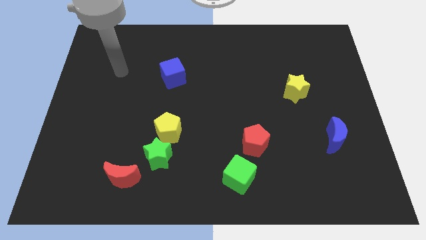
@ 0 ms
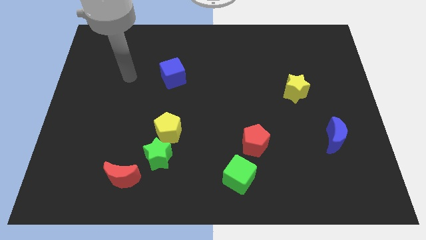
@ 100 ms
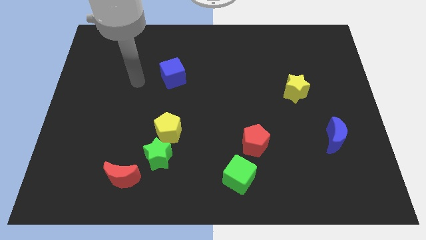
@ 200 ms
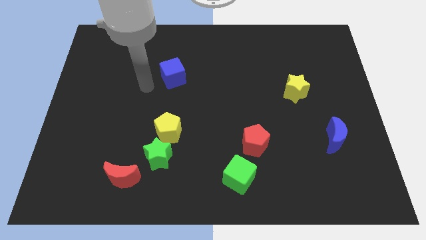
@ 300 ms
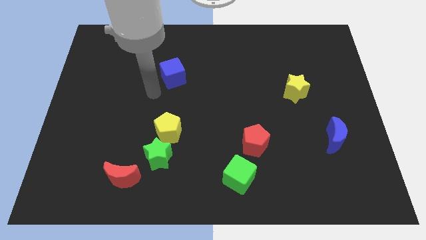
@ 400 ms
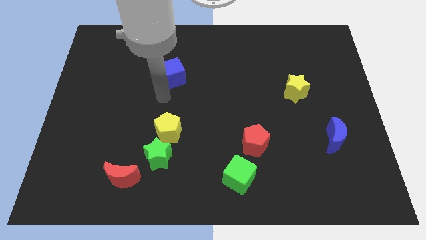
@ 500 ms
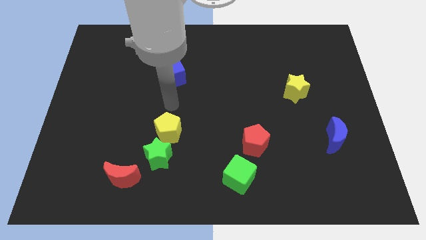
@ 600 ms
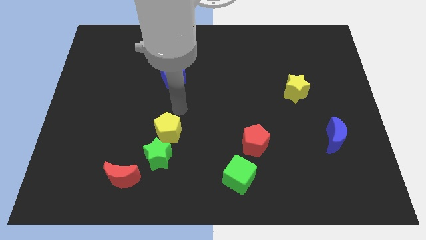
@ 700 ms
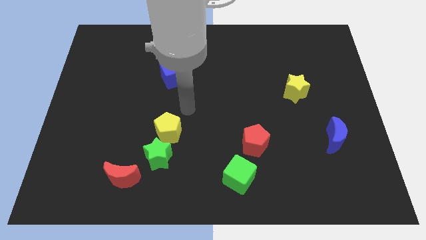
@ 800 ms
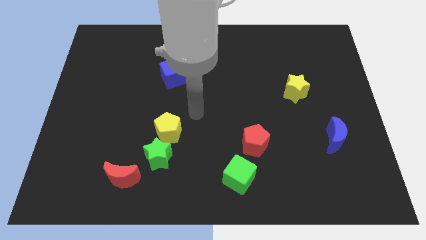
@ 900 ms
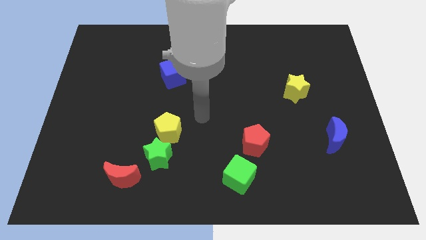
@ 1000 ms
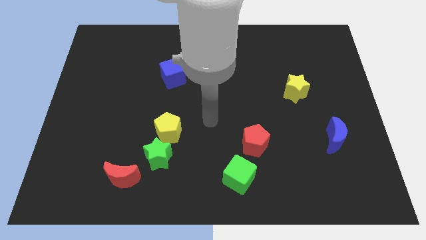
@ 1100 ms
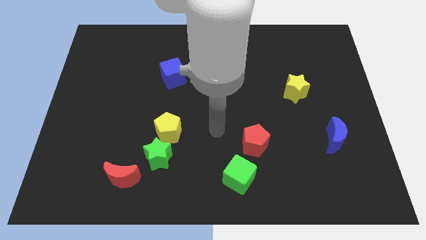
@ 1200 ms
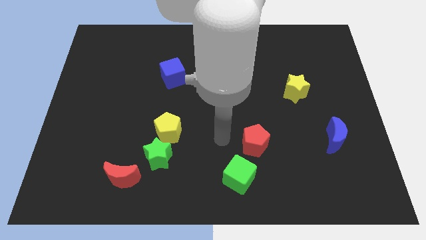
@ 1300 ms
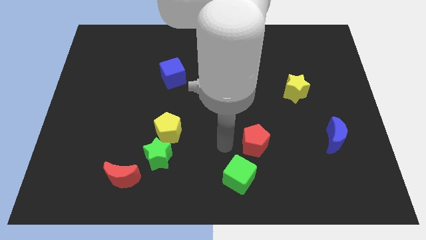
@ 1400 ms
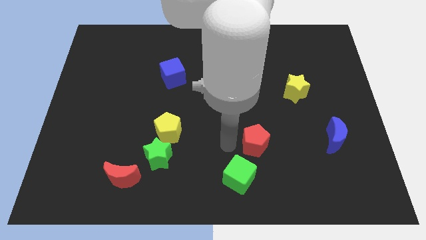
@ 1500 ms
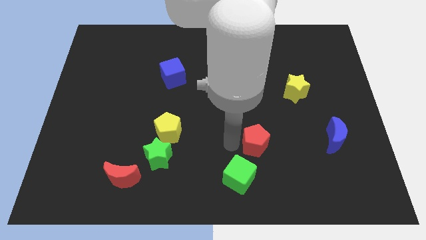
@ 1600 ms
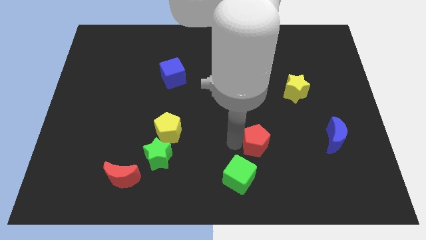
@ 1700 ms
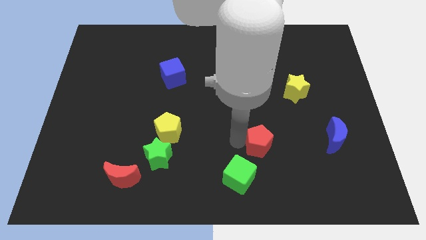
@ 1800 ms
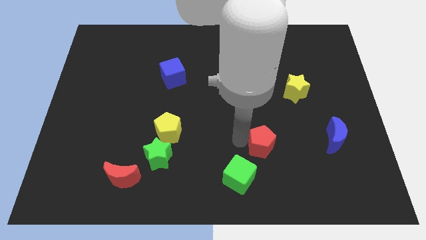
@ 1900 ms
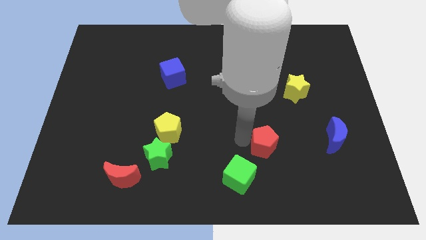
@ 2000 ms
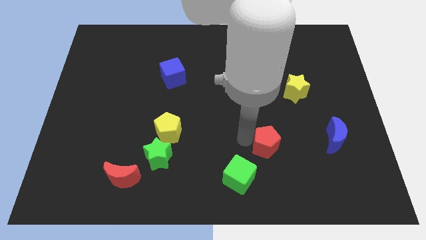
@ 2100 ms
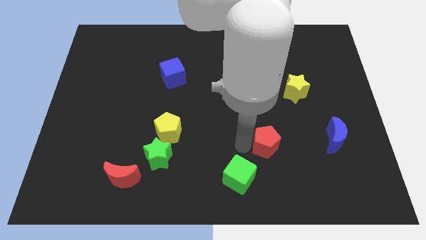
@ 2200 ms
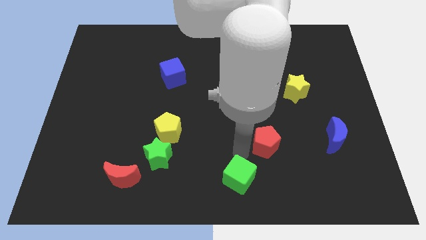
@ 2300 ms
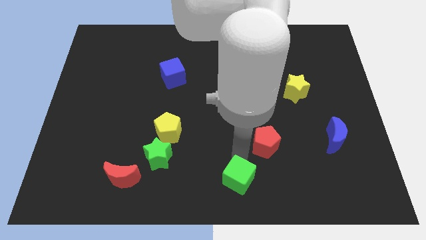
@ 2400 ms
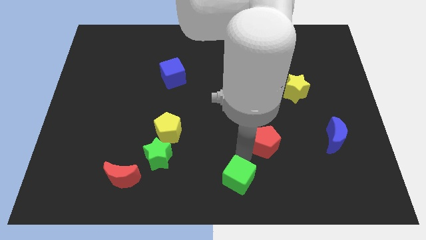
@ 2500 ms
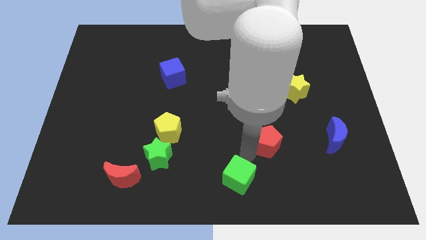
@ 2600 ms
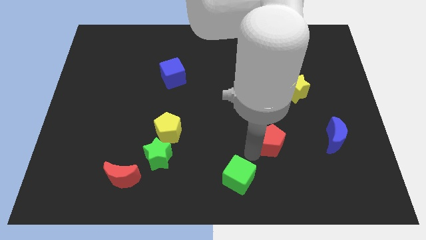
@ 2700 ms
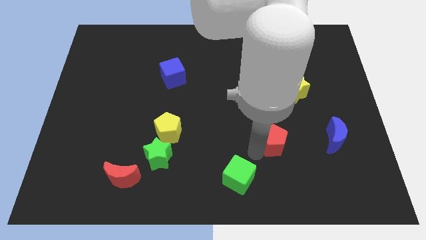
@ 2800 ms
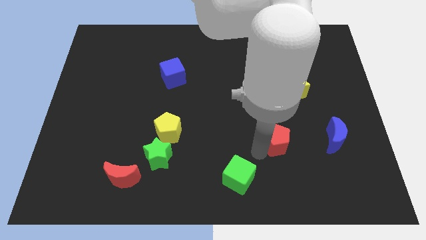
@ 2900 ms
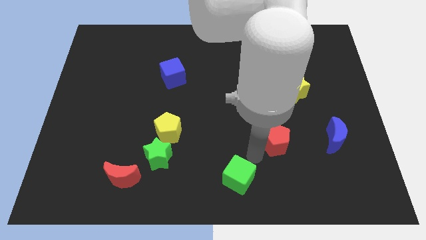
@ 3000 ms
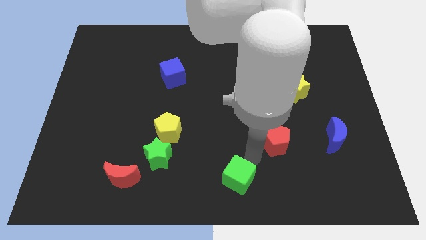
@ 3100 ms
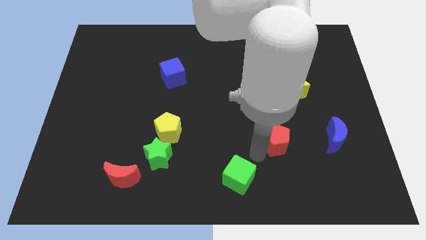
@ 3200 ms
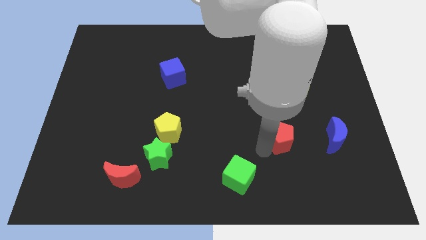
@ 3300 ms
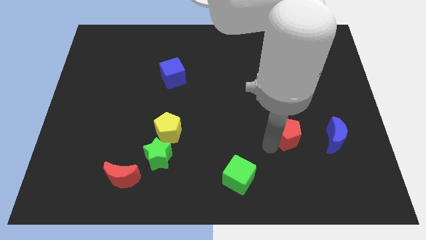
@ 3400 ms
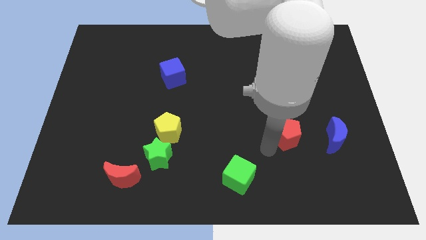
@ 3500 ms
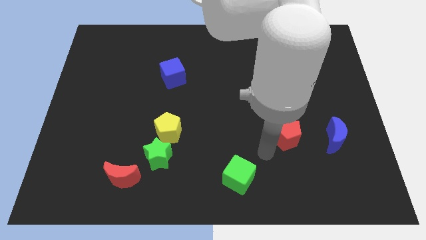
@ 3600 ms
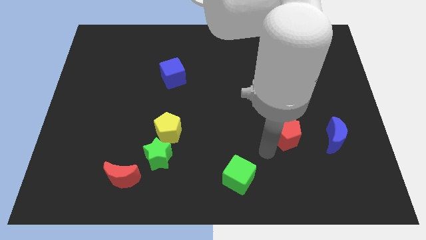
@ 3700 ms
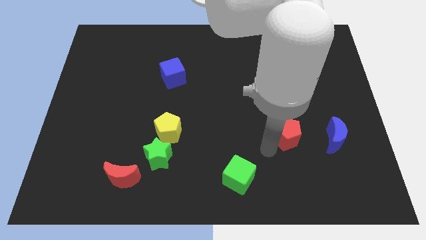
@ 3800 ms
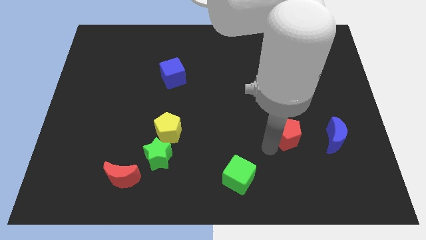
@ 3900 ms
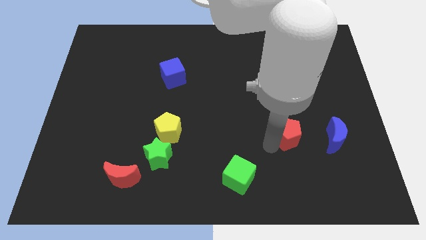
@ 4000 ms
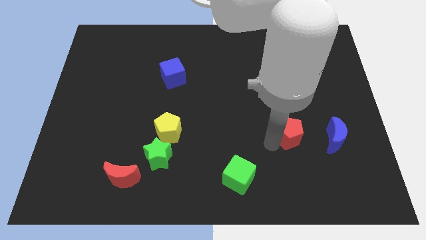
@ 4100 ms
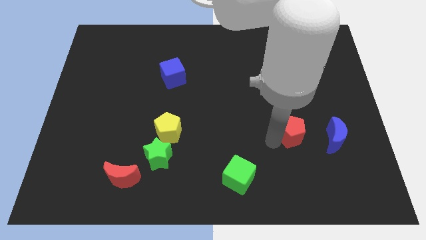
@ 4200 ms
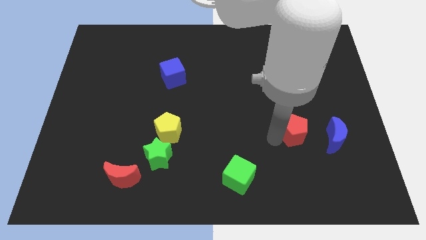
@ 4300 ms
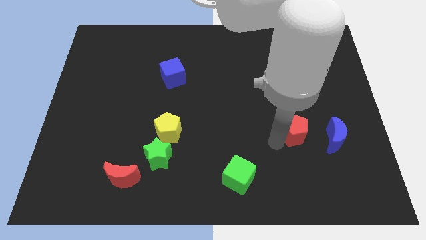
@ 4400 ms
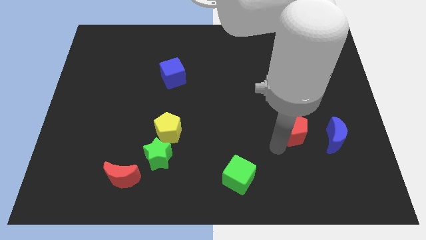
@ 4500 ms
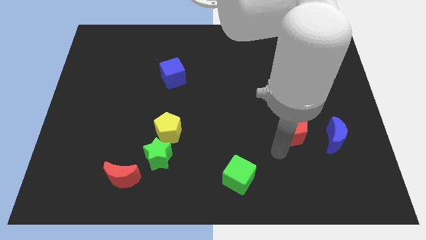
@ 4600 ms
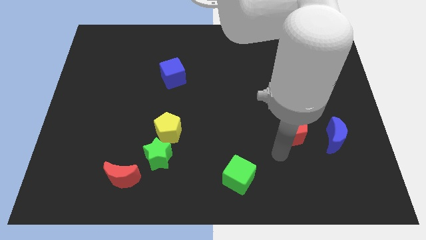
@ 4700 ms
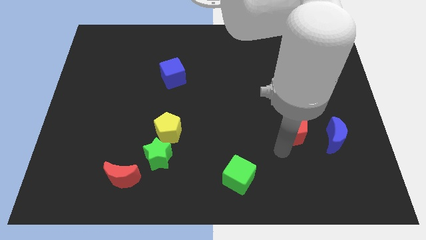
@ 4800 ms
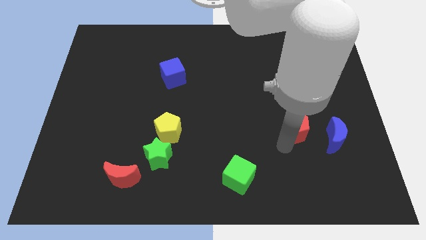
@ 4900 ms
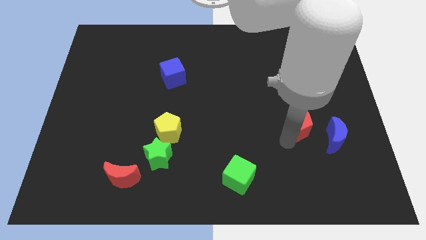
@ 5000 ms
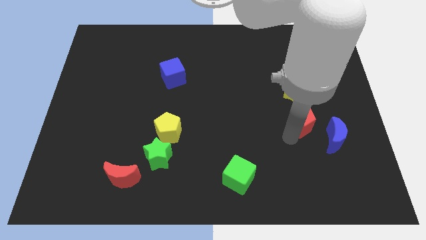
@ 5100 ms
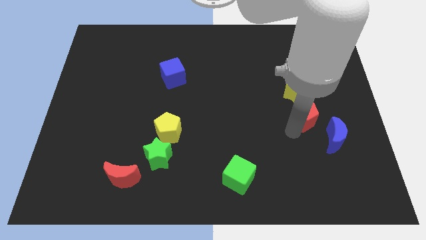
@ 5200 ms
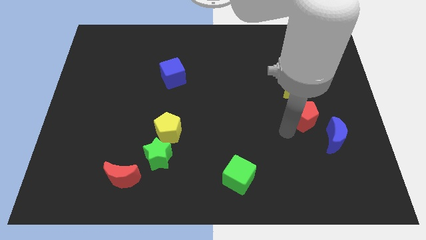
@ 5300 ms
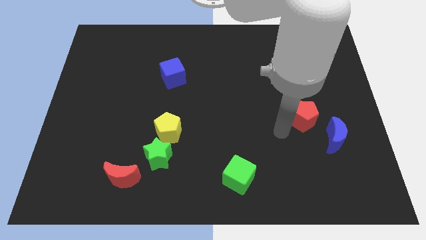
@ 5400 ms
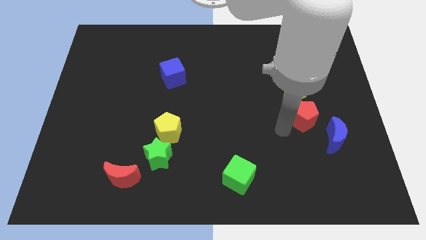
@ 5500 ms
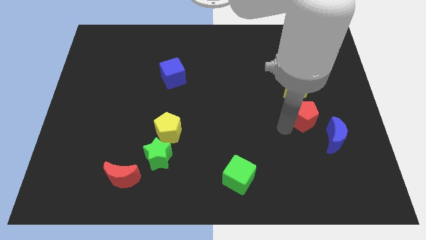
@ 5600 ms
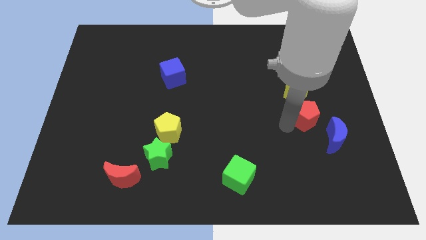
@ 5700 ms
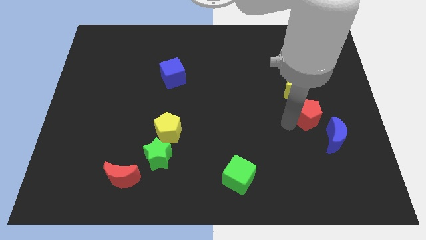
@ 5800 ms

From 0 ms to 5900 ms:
put the red pentagon diagonally down and to the right of the yellow star

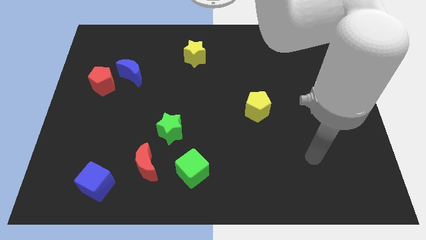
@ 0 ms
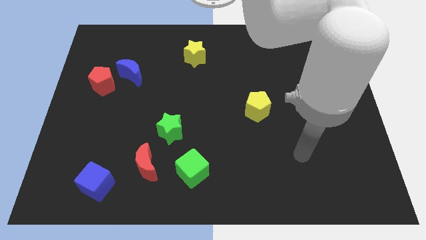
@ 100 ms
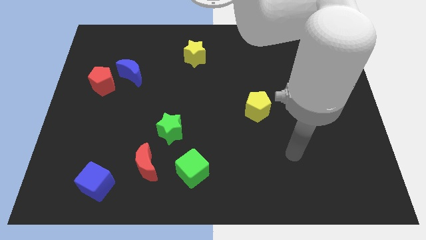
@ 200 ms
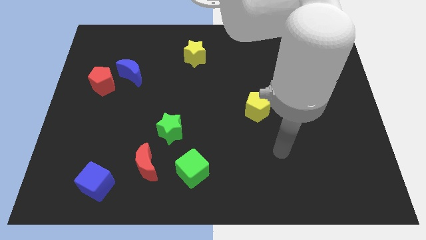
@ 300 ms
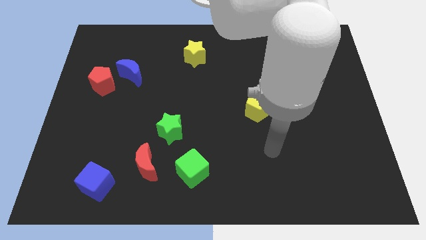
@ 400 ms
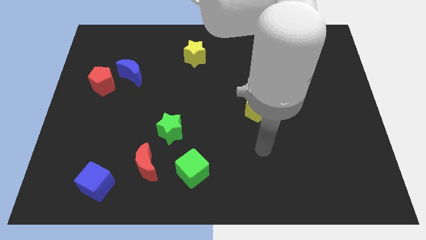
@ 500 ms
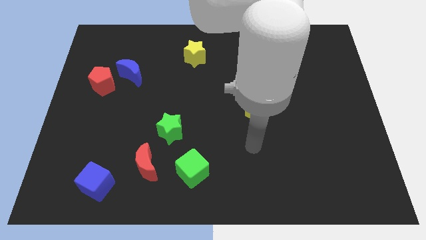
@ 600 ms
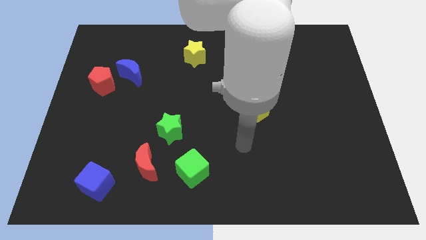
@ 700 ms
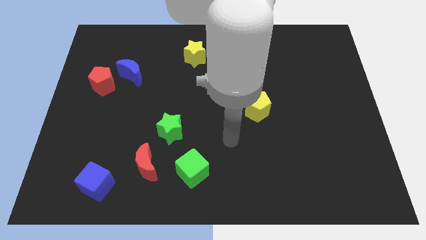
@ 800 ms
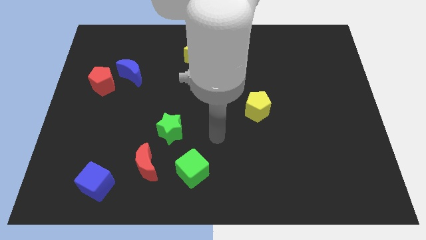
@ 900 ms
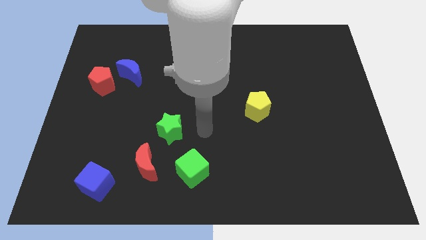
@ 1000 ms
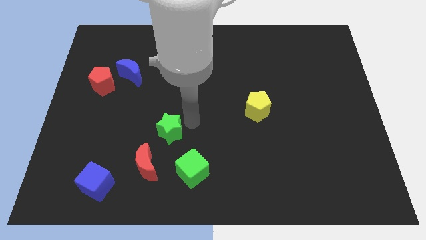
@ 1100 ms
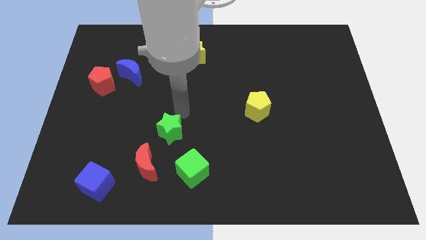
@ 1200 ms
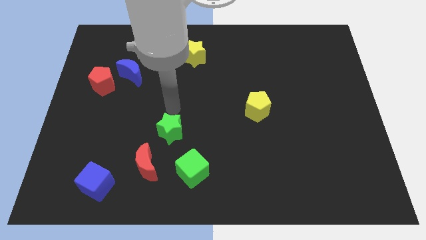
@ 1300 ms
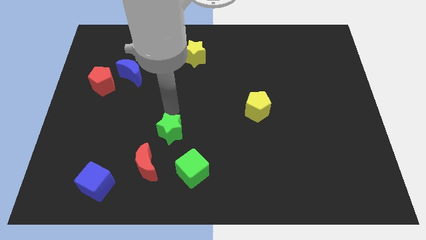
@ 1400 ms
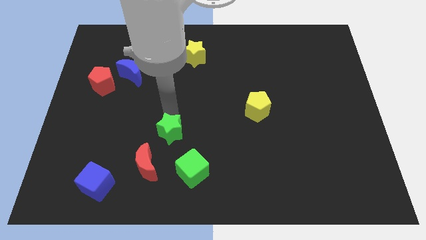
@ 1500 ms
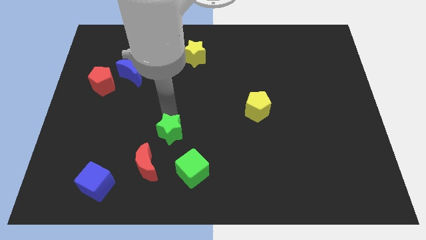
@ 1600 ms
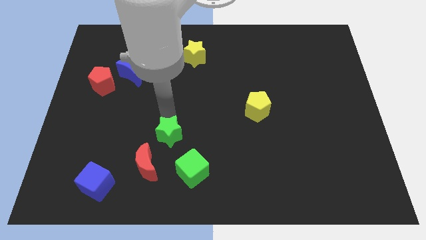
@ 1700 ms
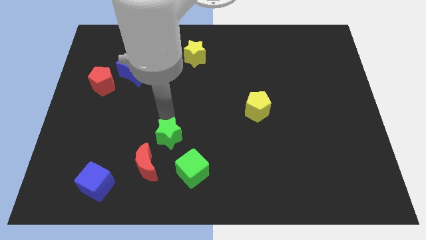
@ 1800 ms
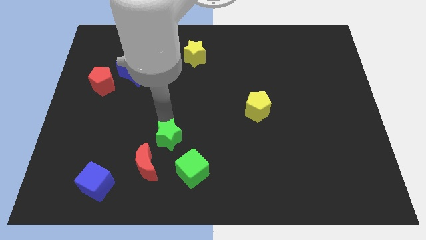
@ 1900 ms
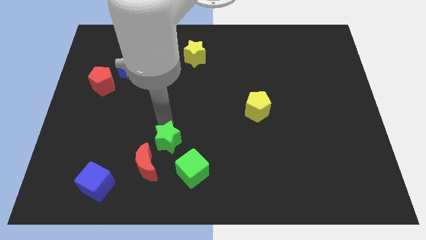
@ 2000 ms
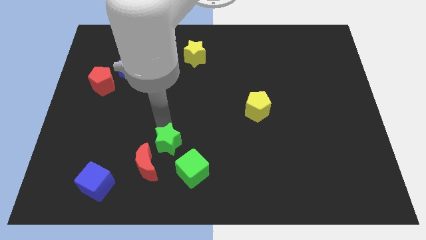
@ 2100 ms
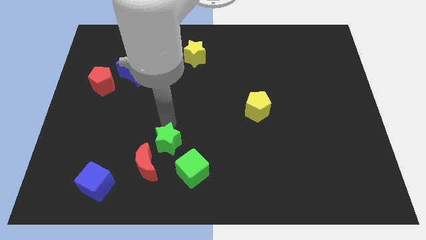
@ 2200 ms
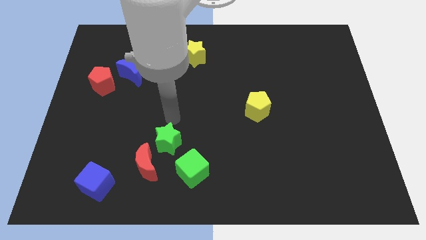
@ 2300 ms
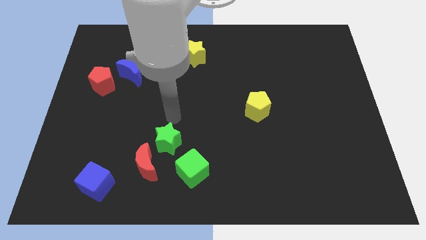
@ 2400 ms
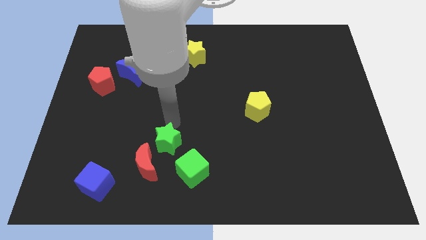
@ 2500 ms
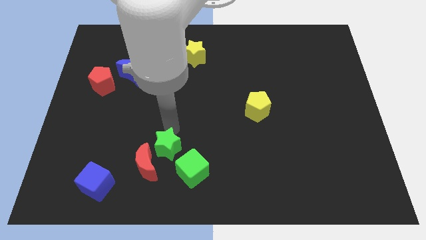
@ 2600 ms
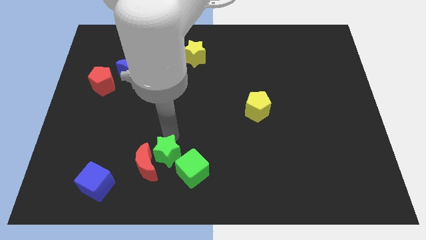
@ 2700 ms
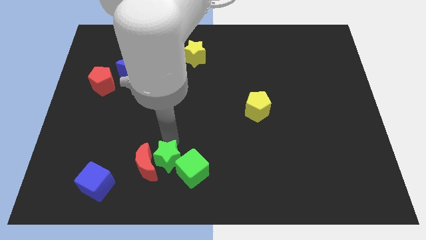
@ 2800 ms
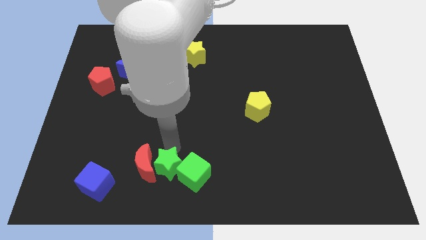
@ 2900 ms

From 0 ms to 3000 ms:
slide the green star right of the blue cube
